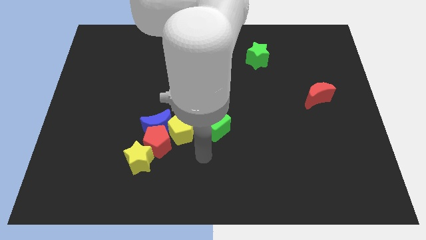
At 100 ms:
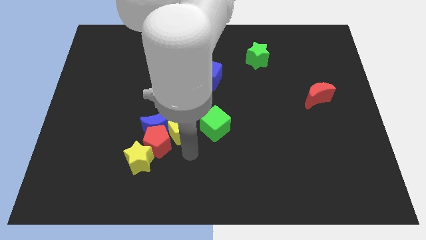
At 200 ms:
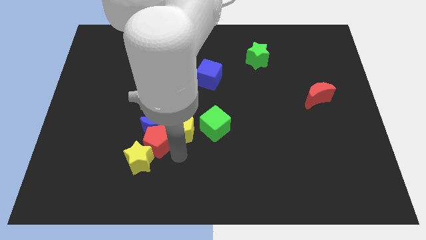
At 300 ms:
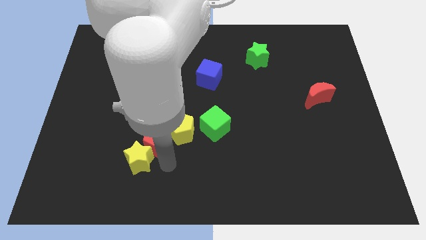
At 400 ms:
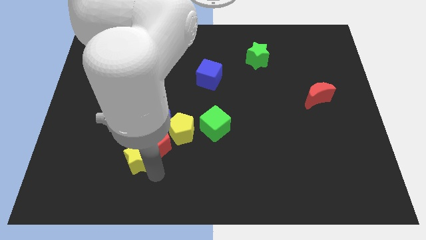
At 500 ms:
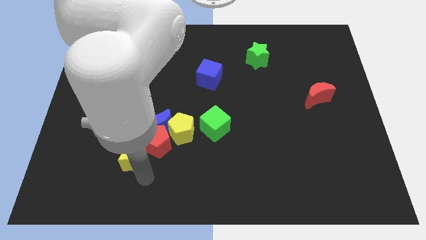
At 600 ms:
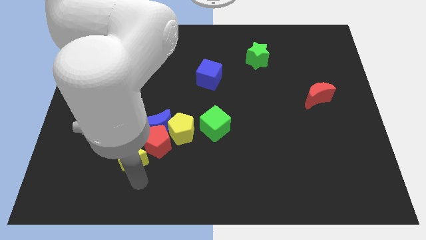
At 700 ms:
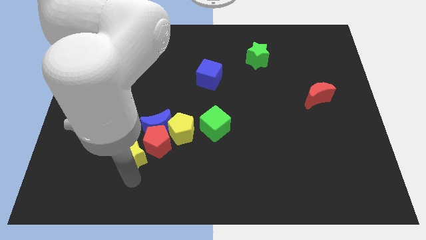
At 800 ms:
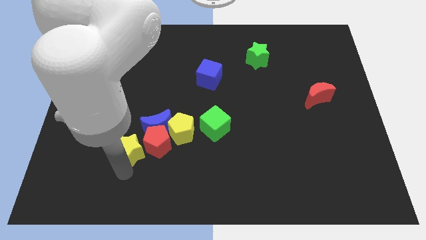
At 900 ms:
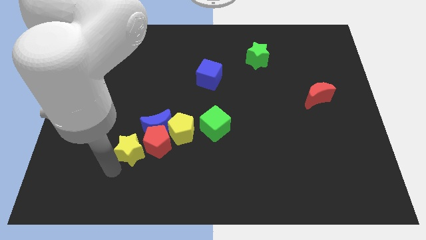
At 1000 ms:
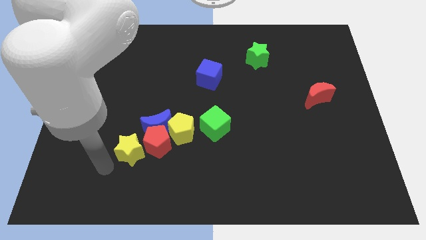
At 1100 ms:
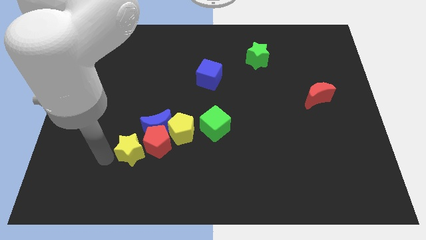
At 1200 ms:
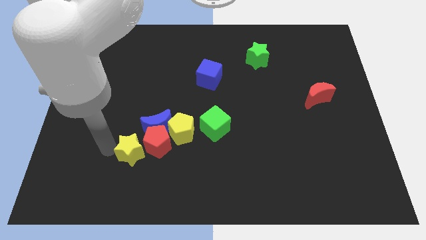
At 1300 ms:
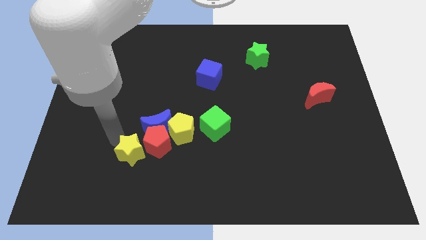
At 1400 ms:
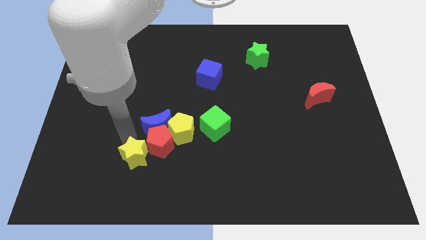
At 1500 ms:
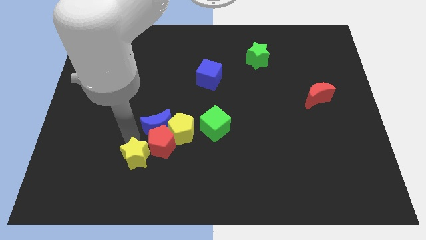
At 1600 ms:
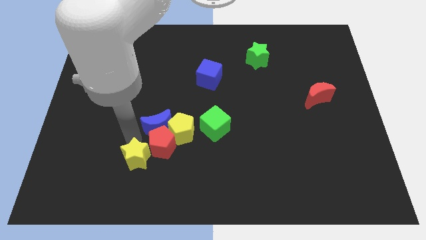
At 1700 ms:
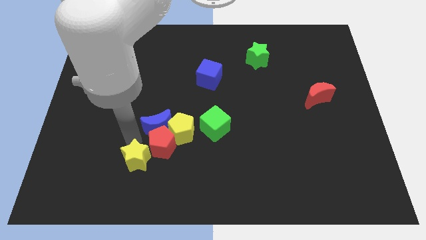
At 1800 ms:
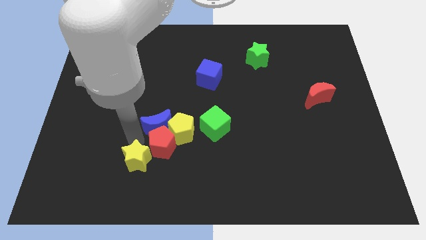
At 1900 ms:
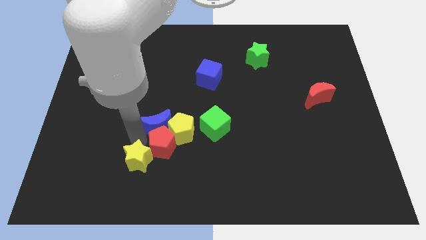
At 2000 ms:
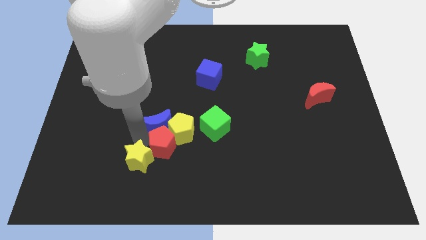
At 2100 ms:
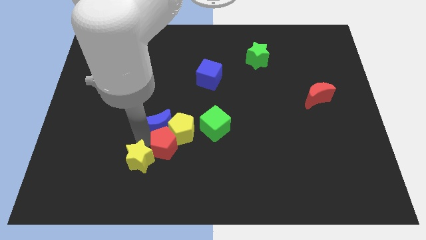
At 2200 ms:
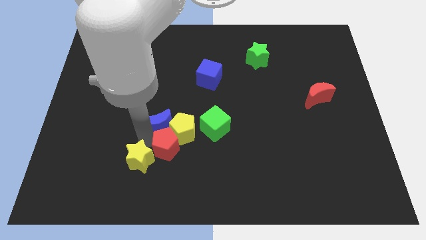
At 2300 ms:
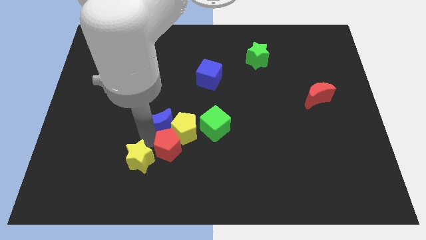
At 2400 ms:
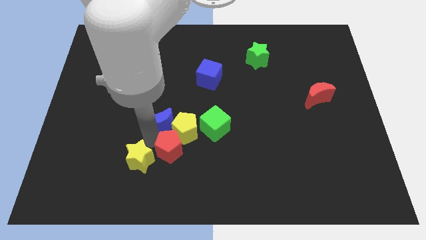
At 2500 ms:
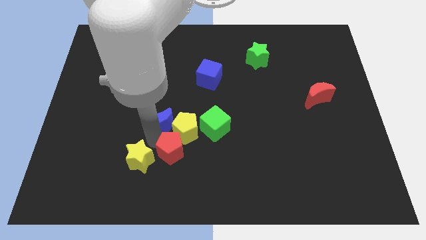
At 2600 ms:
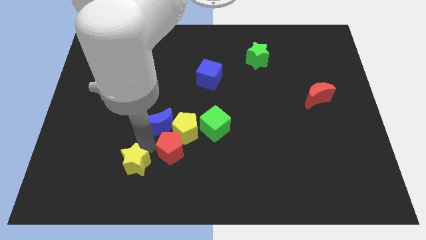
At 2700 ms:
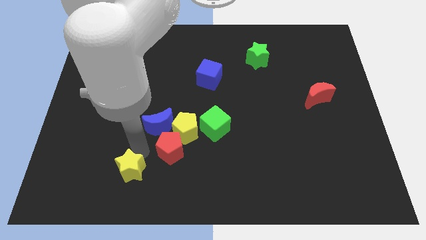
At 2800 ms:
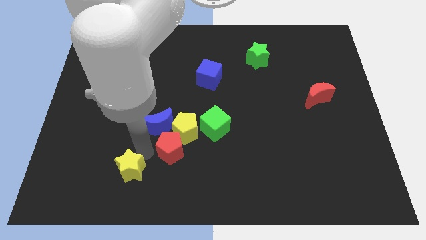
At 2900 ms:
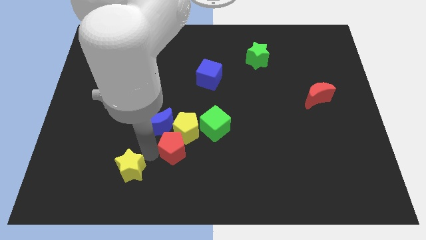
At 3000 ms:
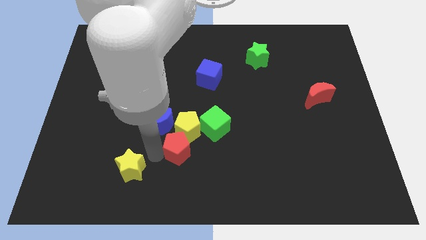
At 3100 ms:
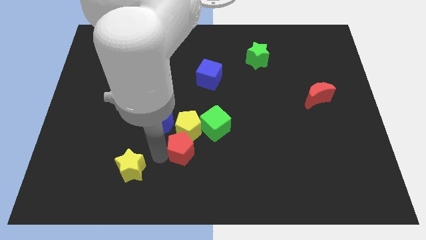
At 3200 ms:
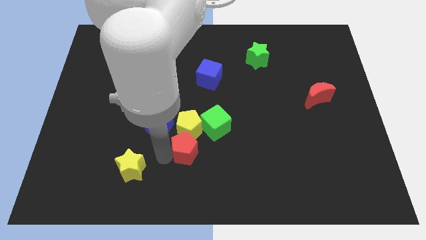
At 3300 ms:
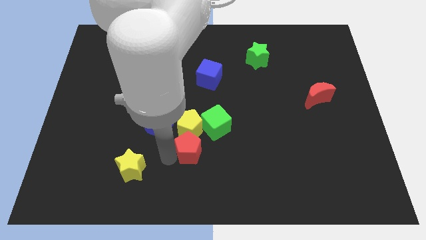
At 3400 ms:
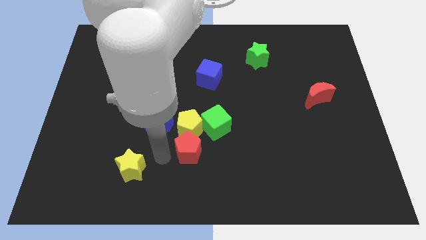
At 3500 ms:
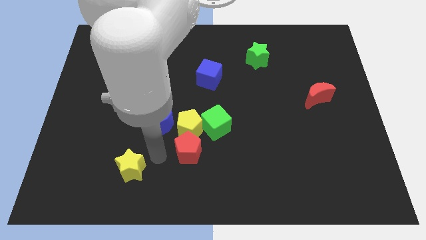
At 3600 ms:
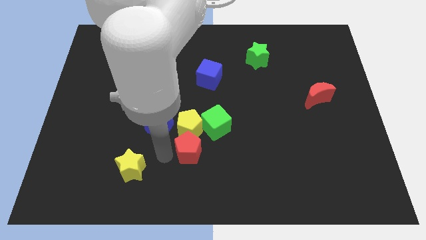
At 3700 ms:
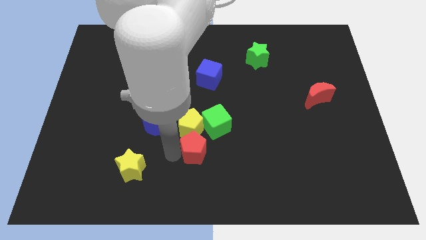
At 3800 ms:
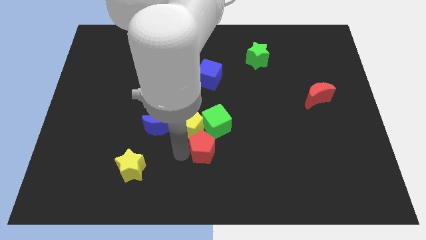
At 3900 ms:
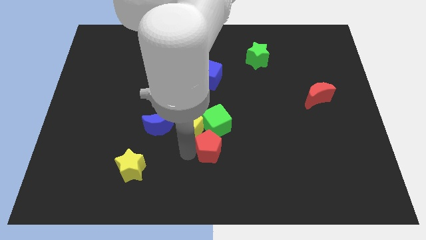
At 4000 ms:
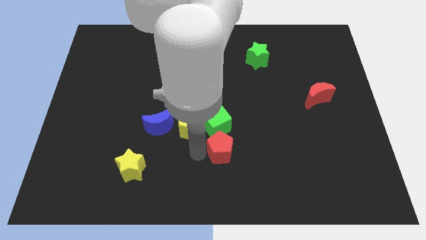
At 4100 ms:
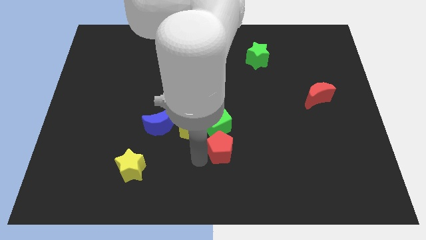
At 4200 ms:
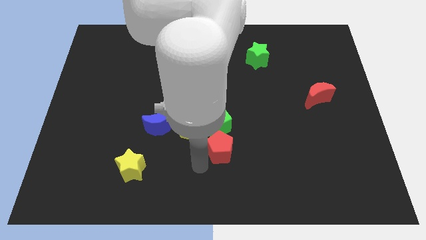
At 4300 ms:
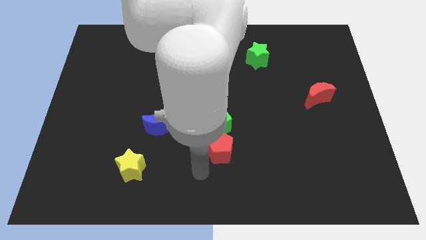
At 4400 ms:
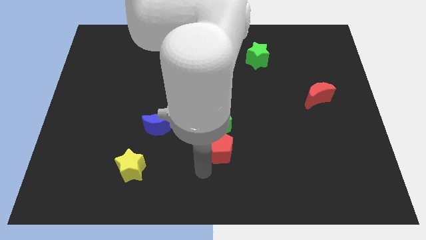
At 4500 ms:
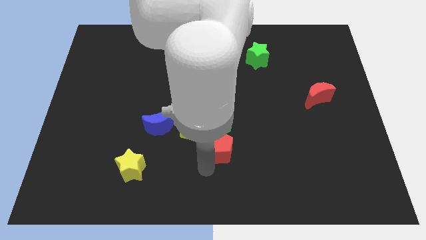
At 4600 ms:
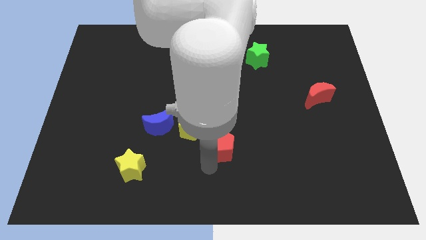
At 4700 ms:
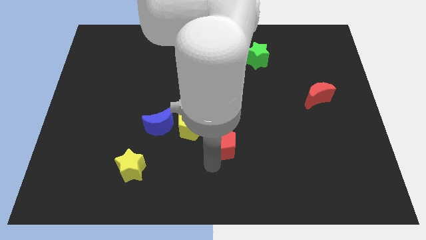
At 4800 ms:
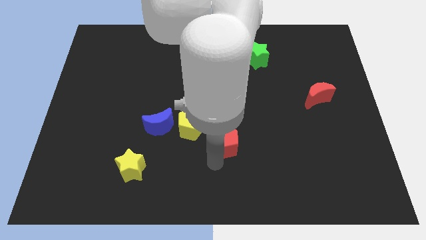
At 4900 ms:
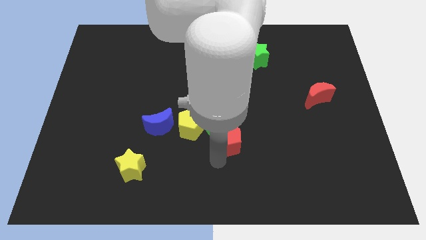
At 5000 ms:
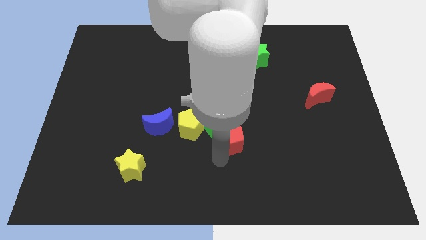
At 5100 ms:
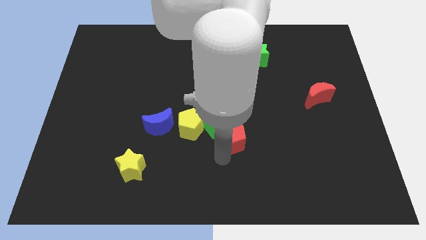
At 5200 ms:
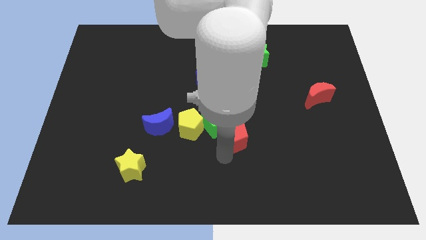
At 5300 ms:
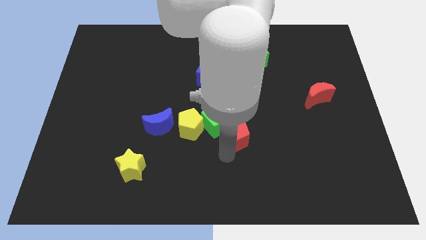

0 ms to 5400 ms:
slightly slide the red pentagon up and then to the right

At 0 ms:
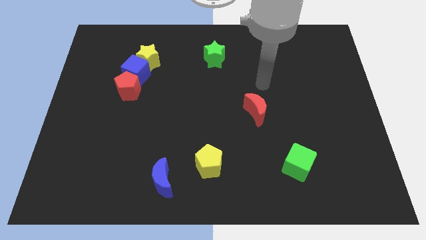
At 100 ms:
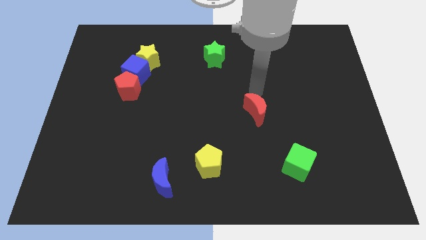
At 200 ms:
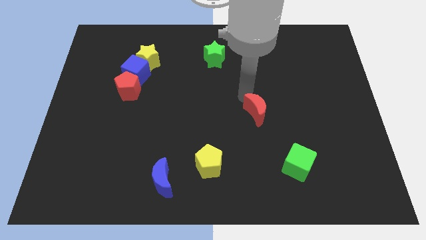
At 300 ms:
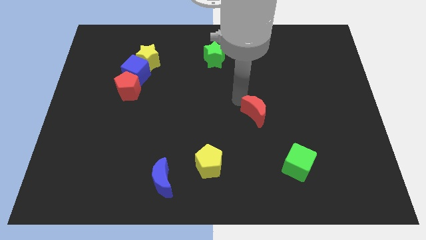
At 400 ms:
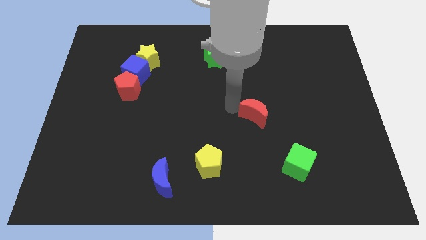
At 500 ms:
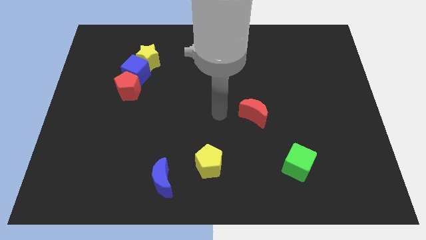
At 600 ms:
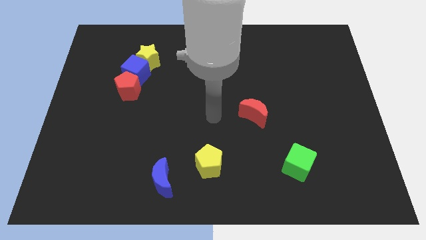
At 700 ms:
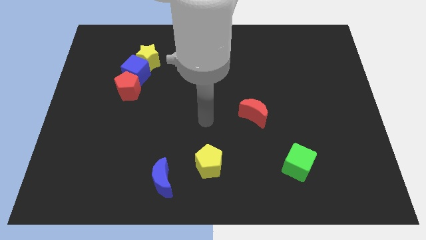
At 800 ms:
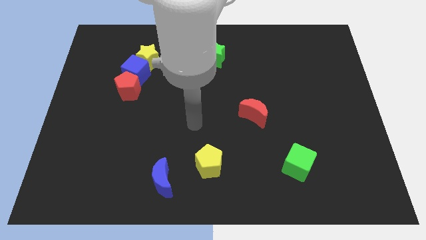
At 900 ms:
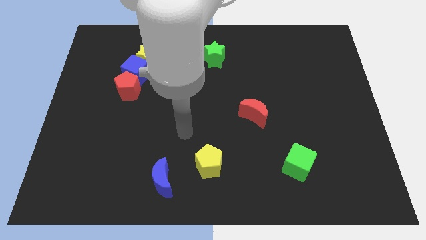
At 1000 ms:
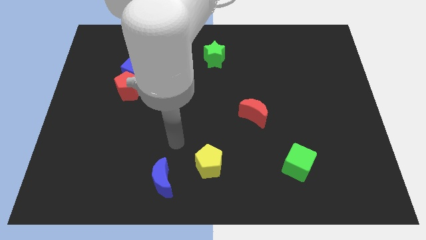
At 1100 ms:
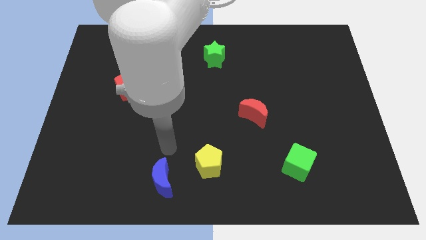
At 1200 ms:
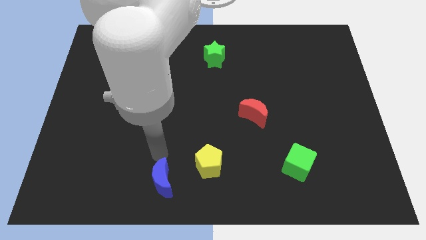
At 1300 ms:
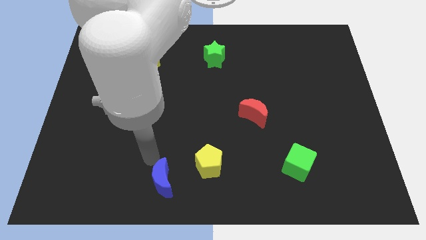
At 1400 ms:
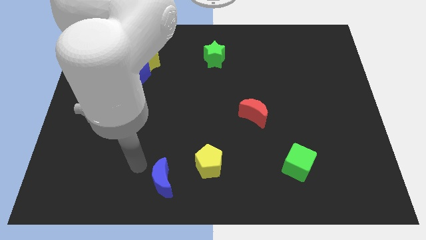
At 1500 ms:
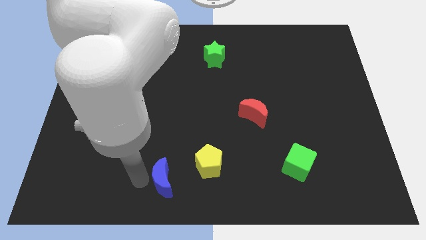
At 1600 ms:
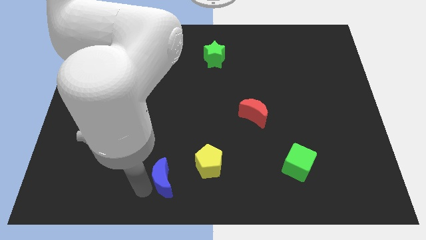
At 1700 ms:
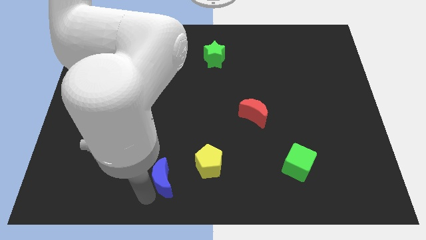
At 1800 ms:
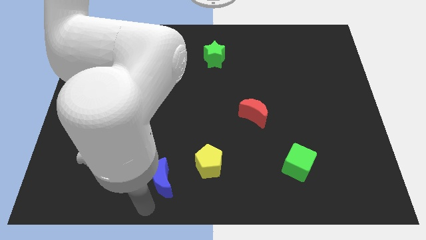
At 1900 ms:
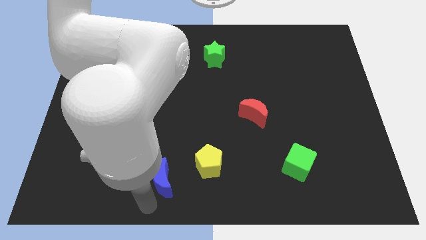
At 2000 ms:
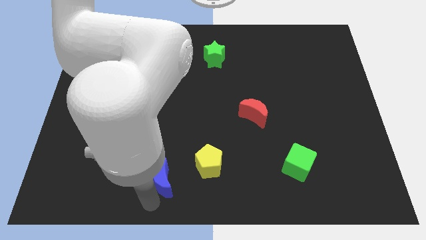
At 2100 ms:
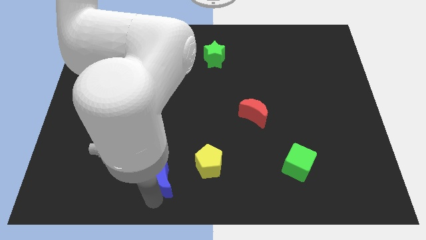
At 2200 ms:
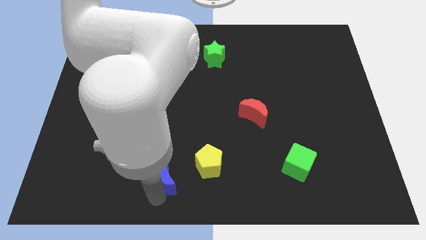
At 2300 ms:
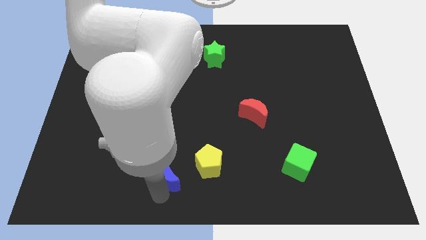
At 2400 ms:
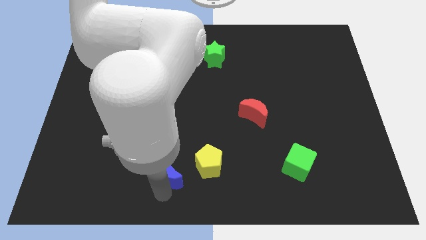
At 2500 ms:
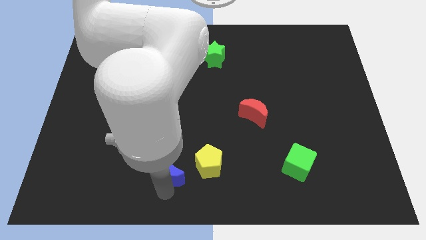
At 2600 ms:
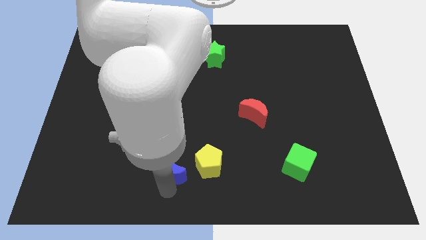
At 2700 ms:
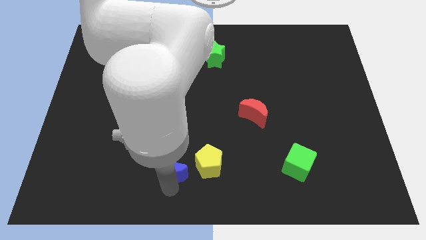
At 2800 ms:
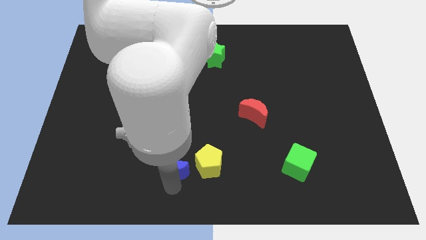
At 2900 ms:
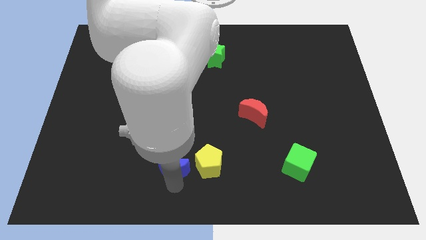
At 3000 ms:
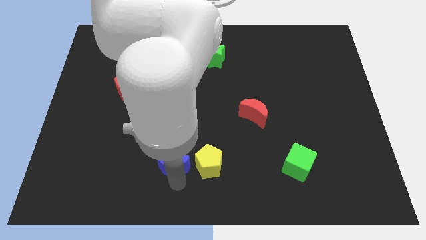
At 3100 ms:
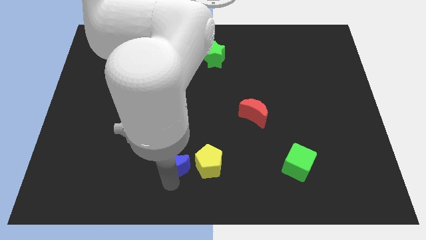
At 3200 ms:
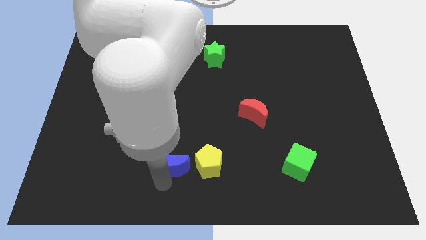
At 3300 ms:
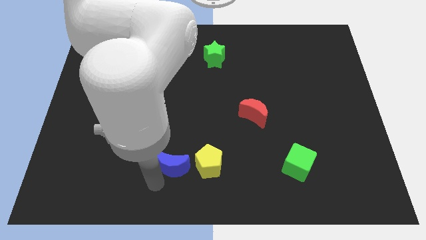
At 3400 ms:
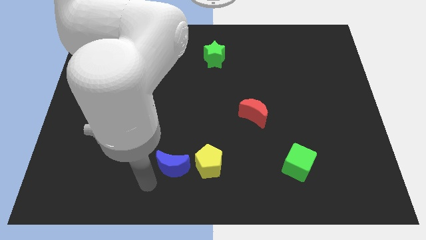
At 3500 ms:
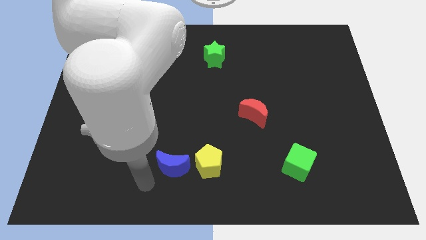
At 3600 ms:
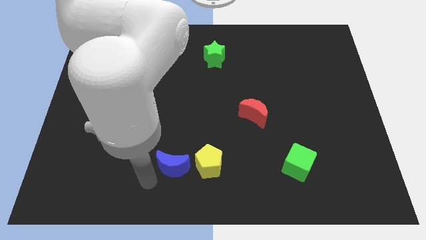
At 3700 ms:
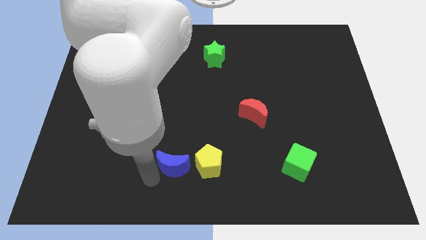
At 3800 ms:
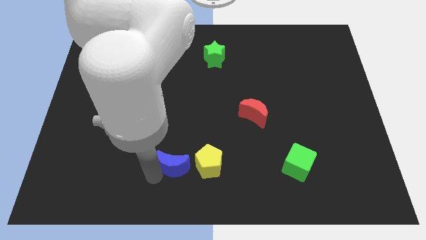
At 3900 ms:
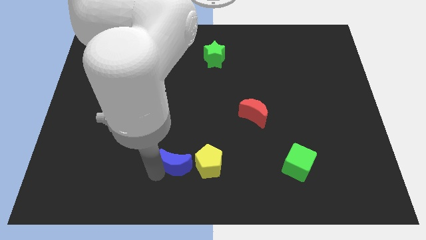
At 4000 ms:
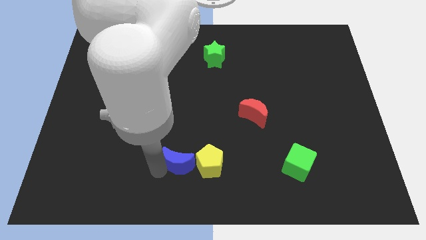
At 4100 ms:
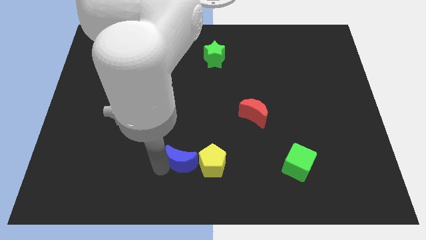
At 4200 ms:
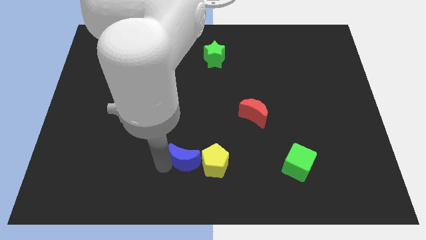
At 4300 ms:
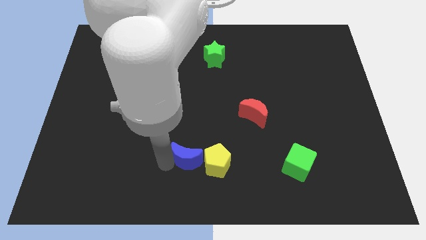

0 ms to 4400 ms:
slightly move the blue moon diagonally up and right
